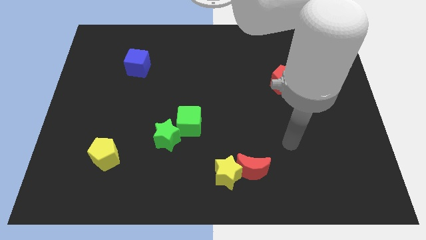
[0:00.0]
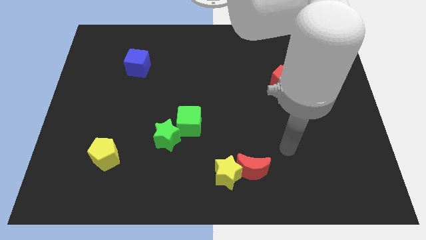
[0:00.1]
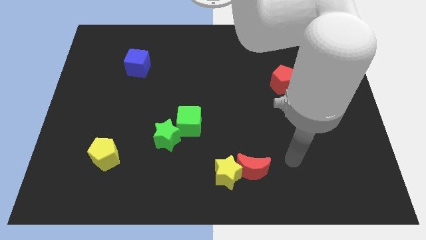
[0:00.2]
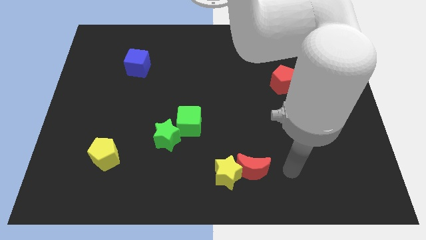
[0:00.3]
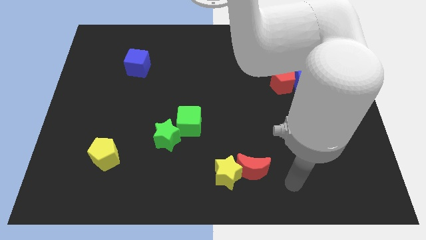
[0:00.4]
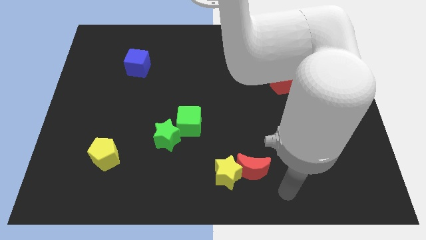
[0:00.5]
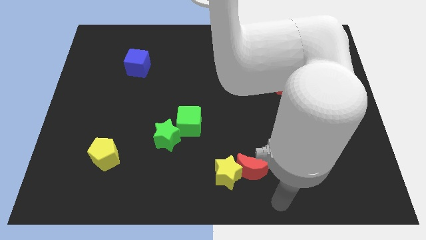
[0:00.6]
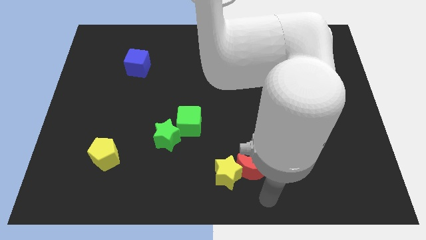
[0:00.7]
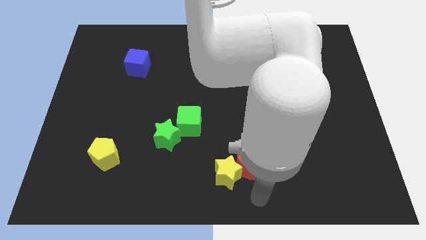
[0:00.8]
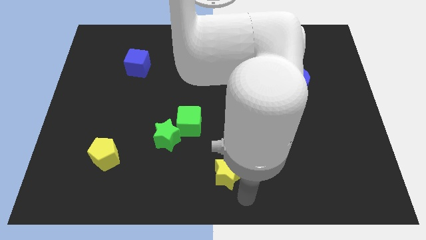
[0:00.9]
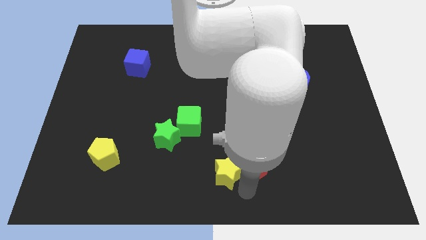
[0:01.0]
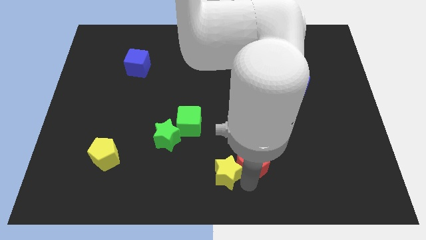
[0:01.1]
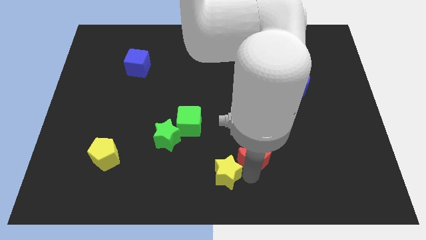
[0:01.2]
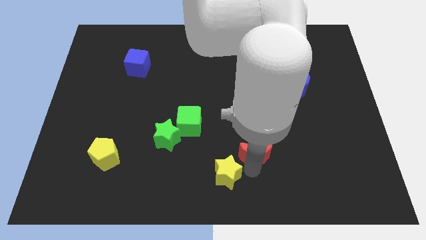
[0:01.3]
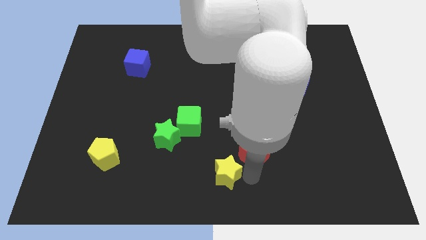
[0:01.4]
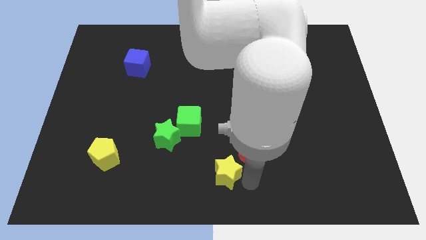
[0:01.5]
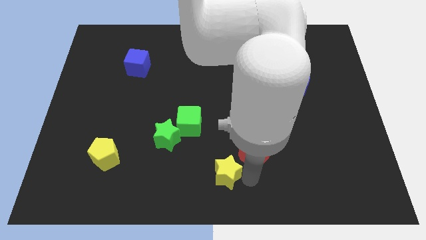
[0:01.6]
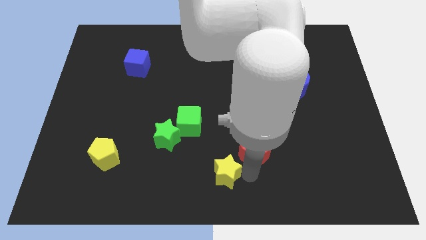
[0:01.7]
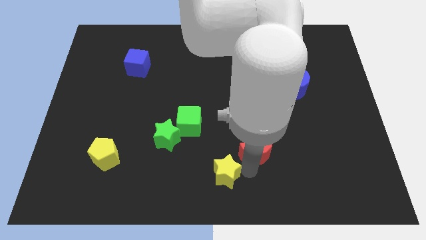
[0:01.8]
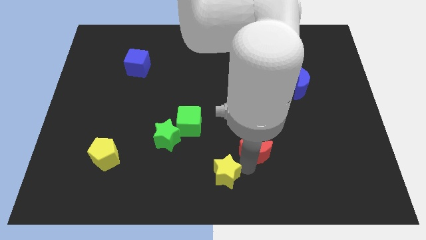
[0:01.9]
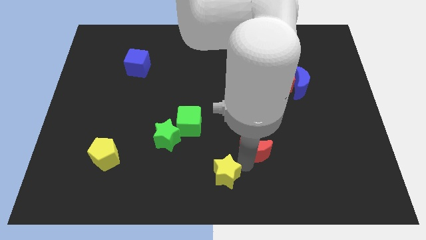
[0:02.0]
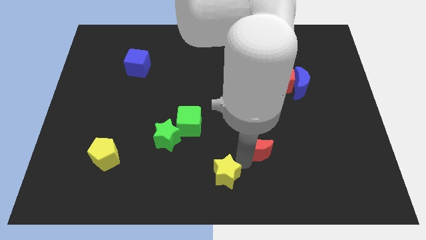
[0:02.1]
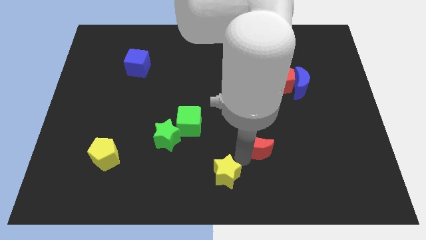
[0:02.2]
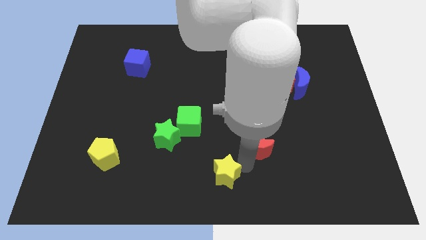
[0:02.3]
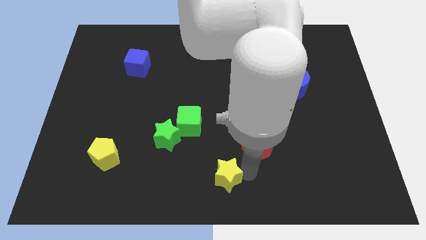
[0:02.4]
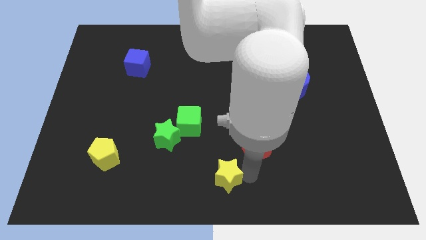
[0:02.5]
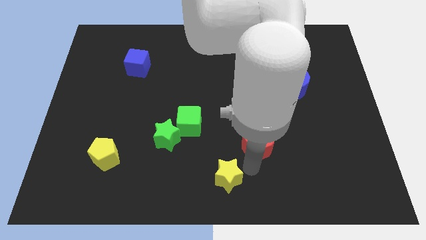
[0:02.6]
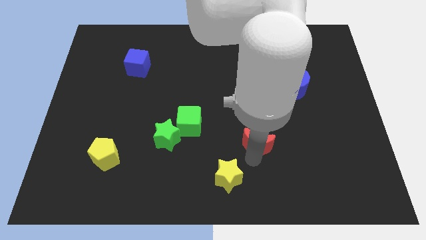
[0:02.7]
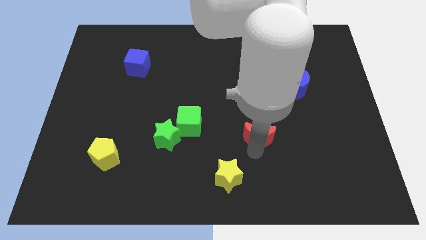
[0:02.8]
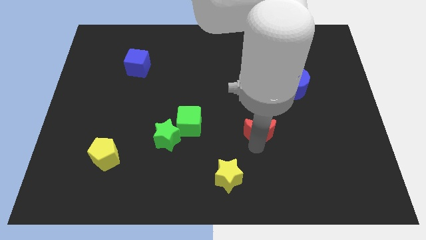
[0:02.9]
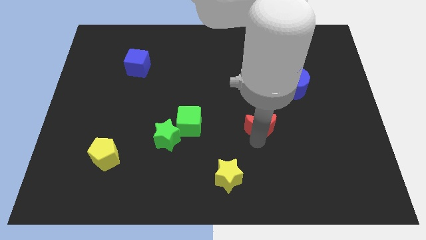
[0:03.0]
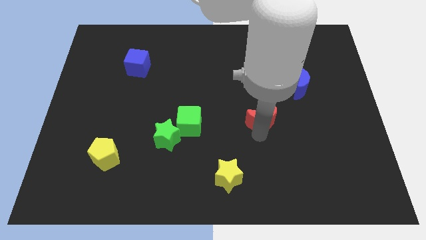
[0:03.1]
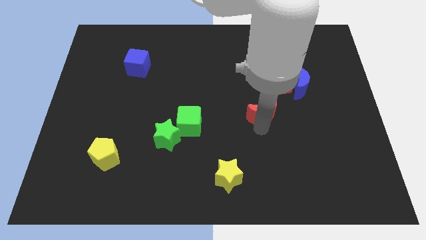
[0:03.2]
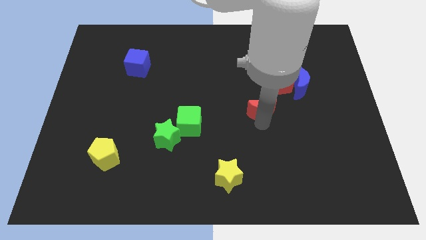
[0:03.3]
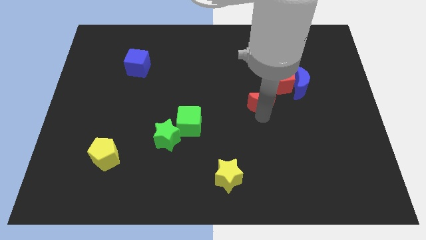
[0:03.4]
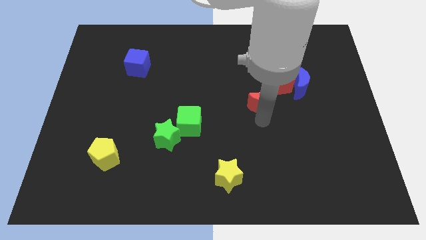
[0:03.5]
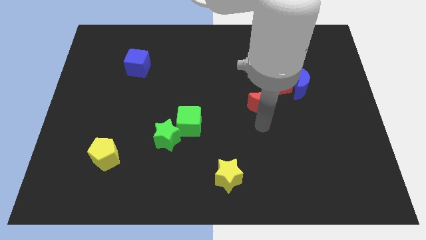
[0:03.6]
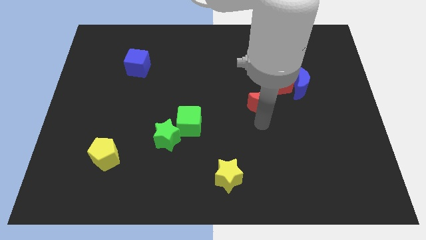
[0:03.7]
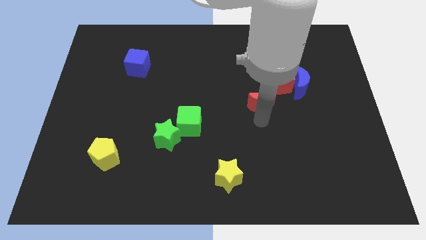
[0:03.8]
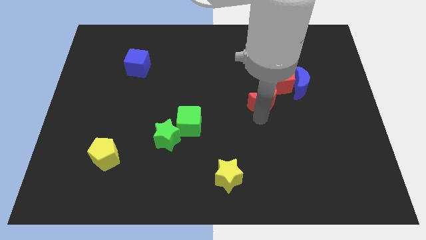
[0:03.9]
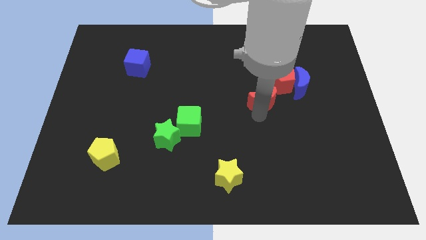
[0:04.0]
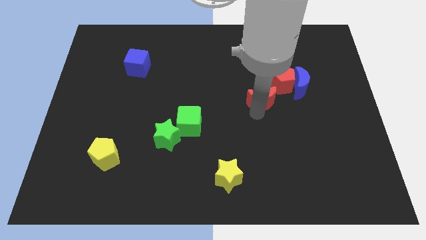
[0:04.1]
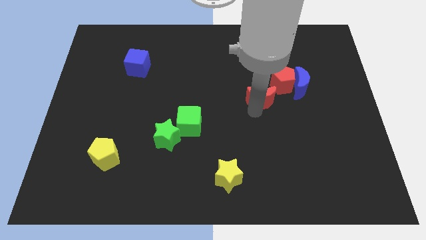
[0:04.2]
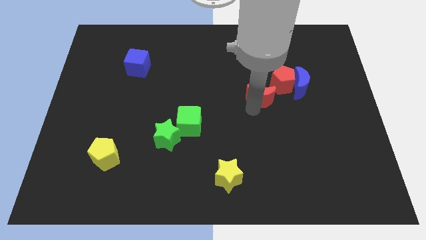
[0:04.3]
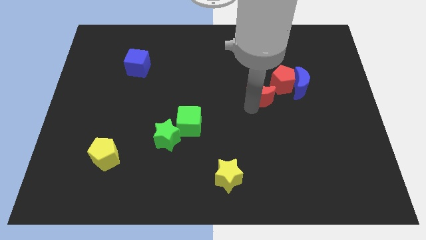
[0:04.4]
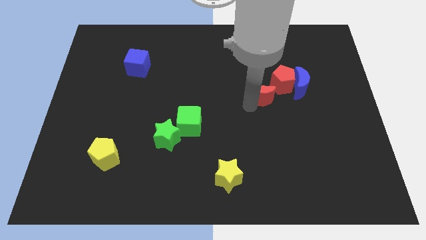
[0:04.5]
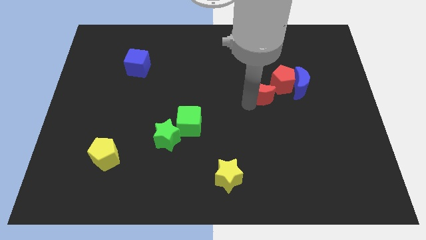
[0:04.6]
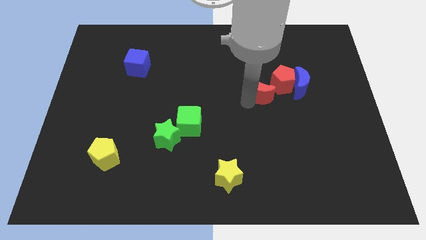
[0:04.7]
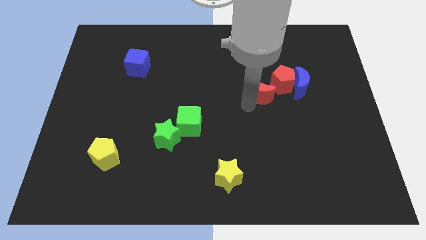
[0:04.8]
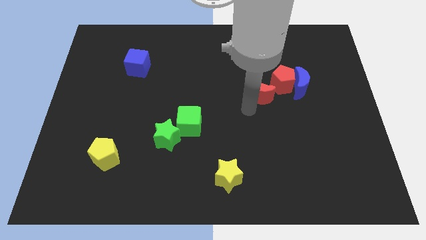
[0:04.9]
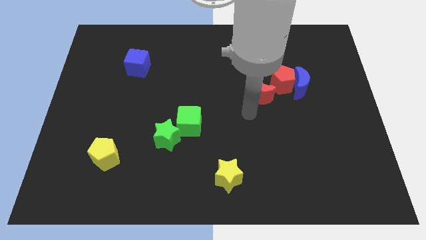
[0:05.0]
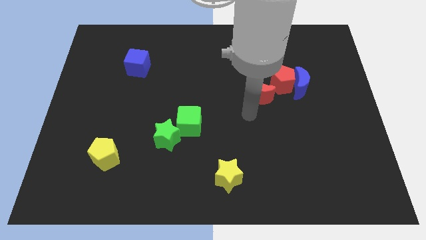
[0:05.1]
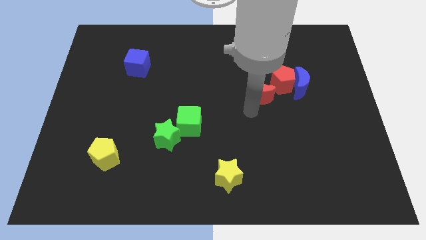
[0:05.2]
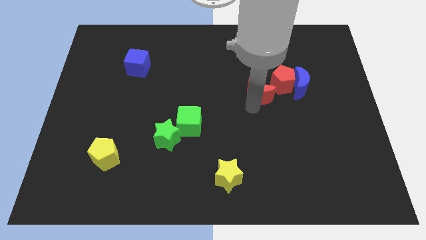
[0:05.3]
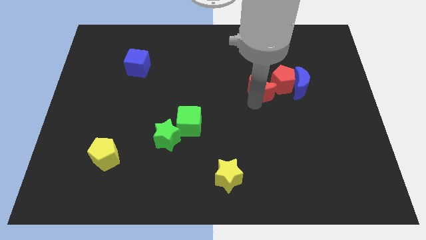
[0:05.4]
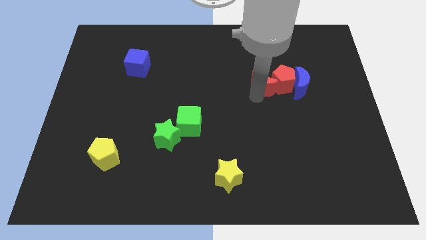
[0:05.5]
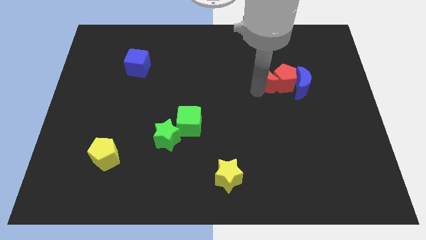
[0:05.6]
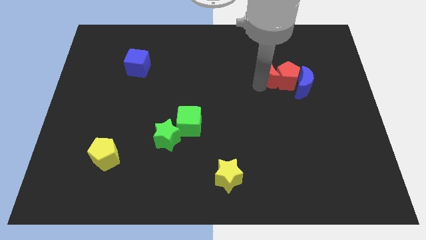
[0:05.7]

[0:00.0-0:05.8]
put the red moon to the top left side of the blue moon

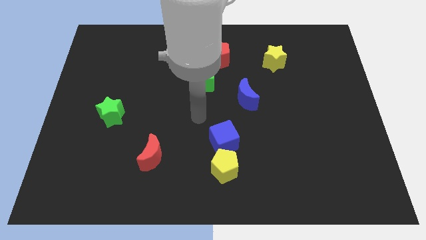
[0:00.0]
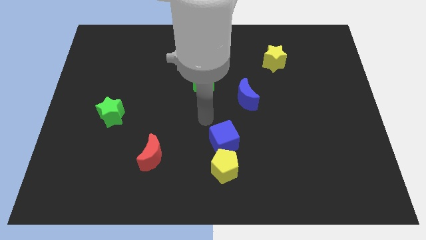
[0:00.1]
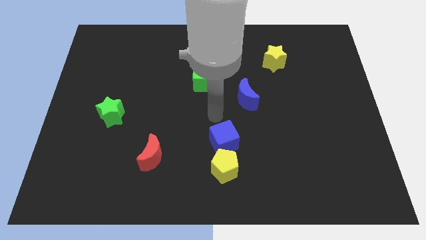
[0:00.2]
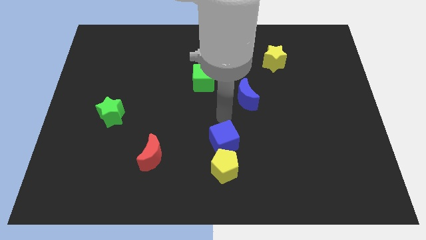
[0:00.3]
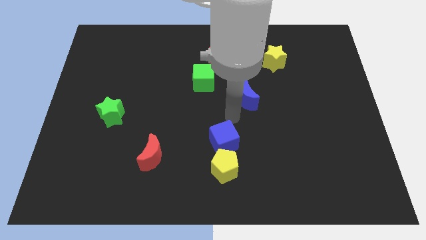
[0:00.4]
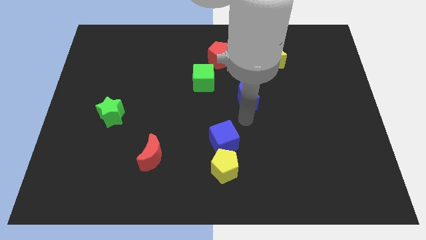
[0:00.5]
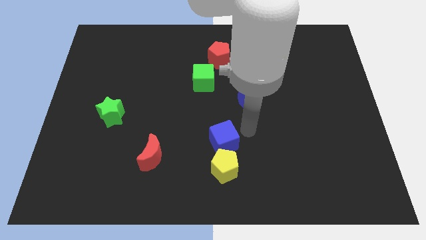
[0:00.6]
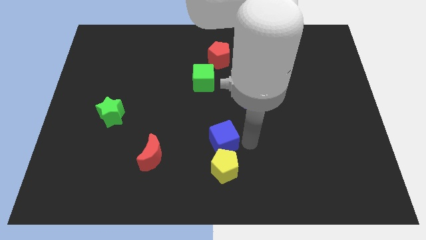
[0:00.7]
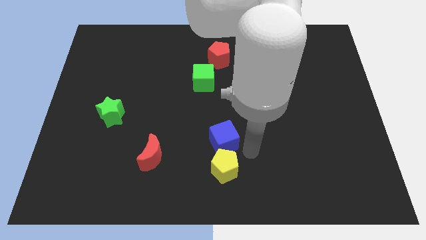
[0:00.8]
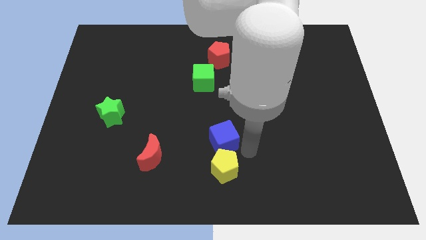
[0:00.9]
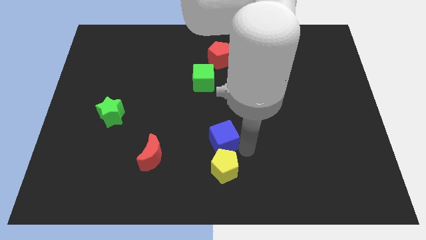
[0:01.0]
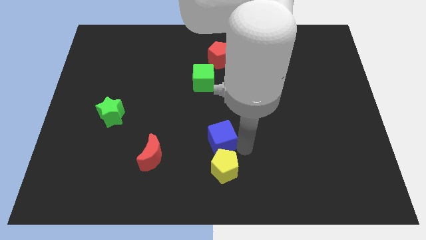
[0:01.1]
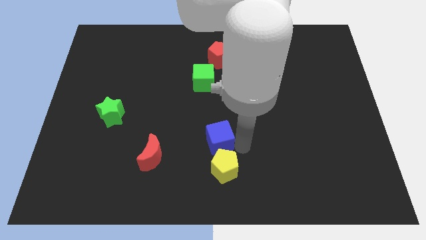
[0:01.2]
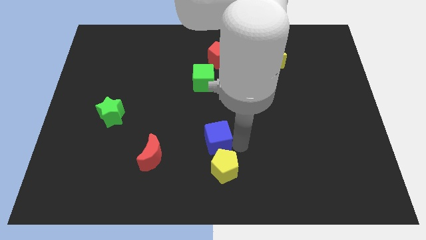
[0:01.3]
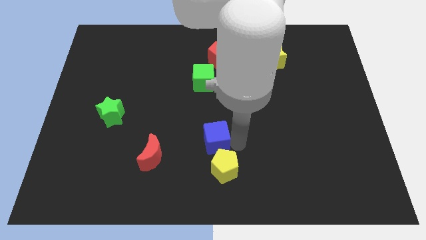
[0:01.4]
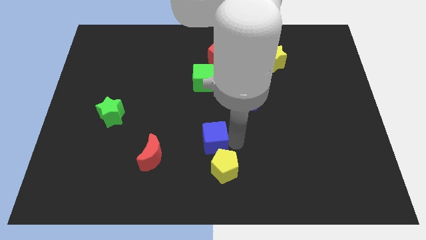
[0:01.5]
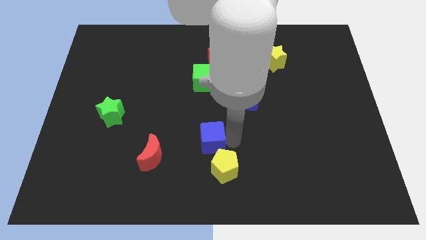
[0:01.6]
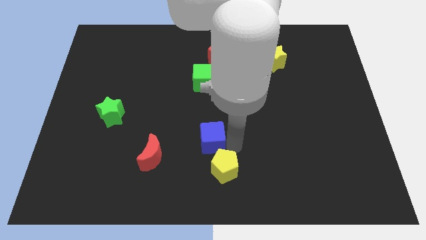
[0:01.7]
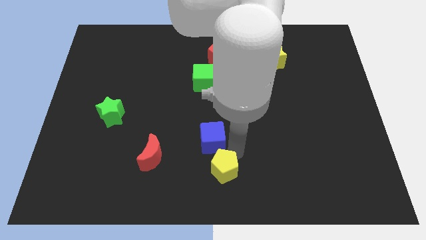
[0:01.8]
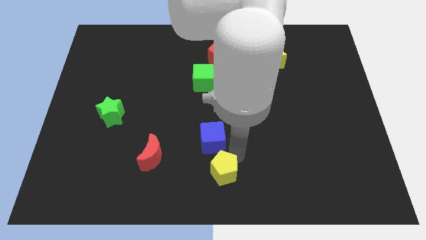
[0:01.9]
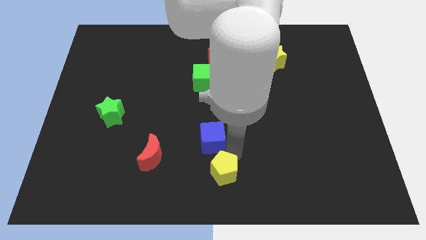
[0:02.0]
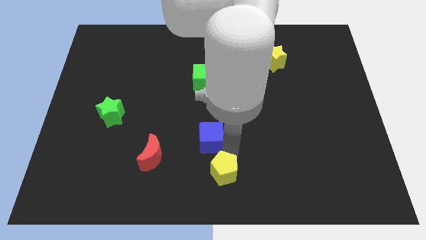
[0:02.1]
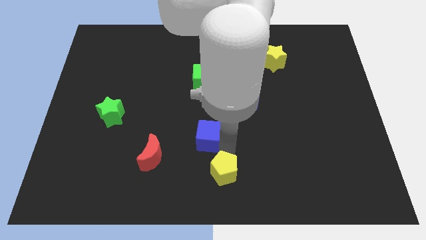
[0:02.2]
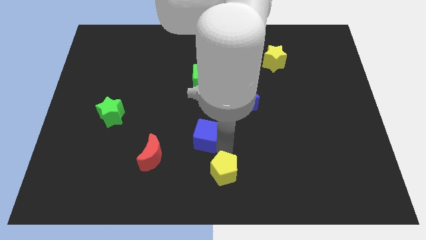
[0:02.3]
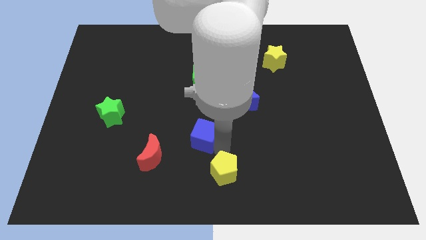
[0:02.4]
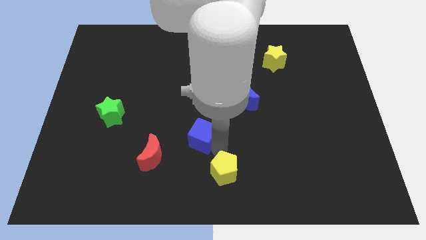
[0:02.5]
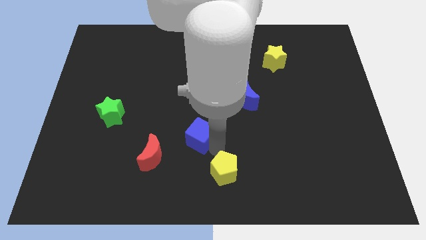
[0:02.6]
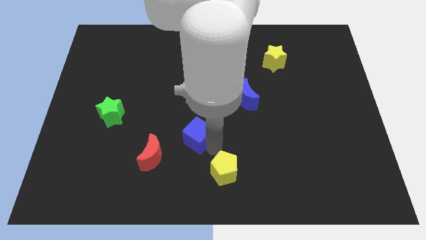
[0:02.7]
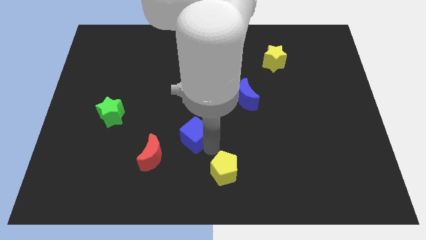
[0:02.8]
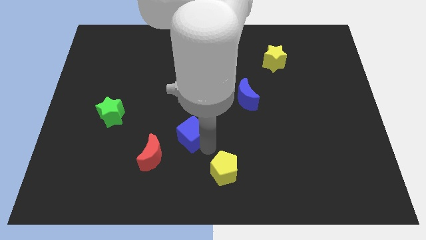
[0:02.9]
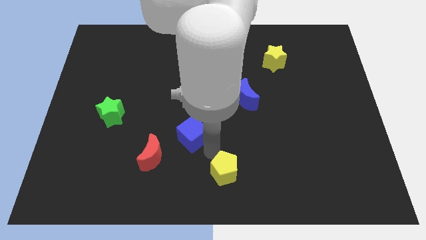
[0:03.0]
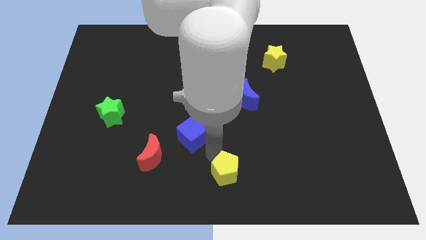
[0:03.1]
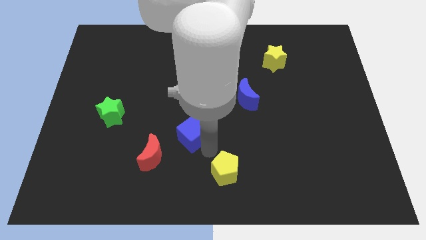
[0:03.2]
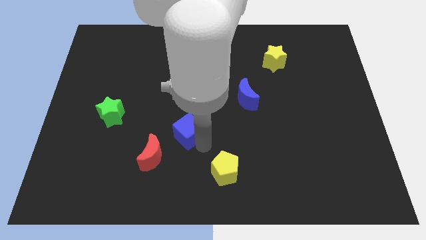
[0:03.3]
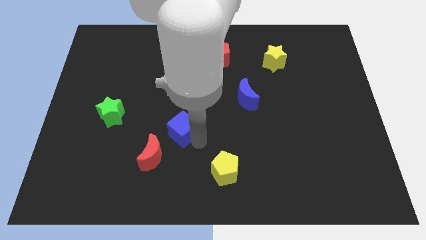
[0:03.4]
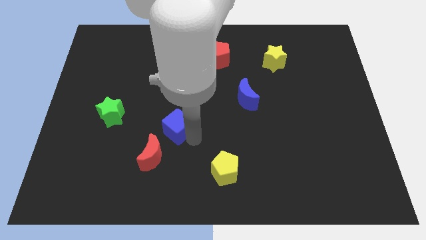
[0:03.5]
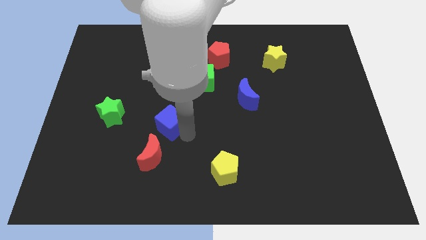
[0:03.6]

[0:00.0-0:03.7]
slide the blue cube right of the green star
